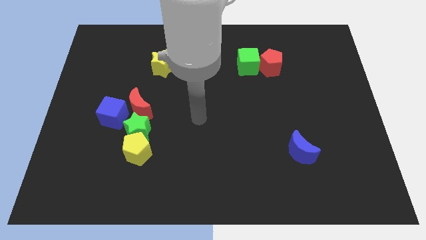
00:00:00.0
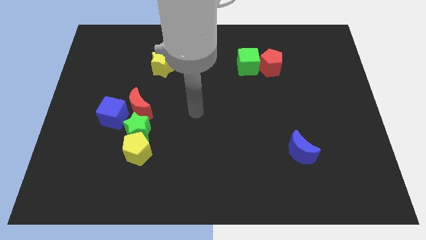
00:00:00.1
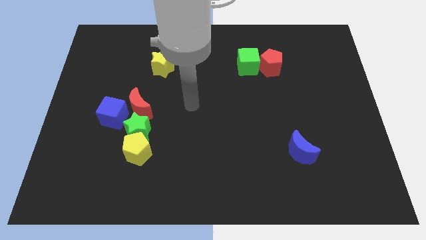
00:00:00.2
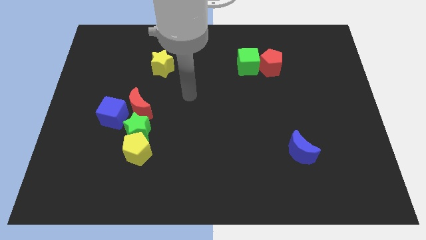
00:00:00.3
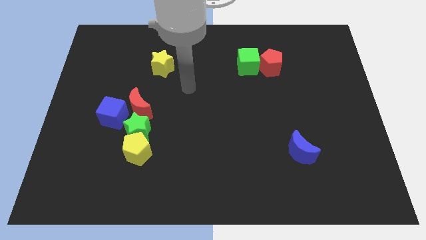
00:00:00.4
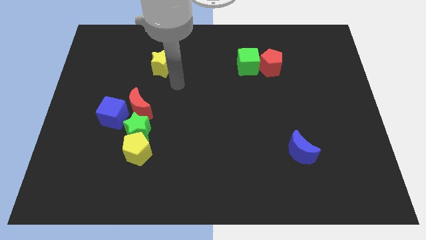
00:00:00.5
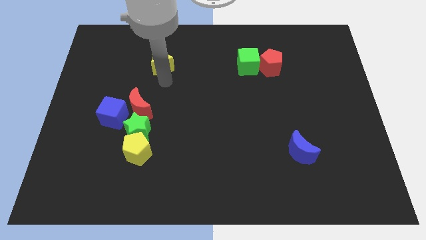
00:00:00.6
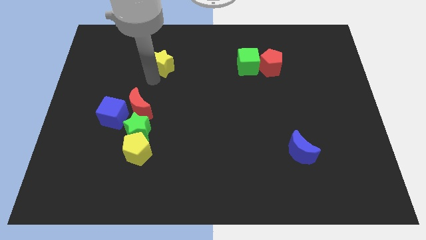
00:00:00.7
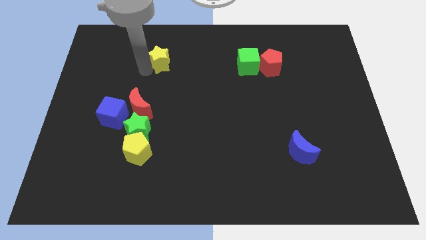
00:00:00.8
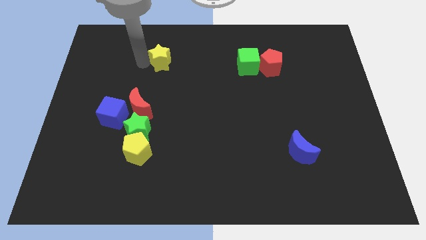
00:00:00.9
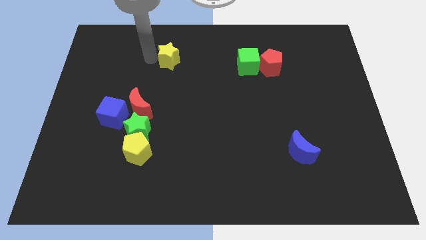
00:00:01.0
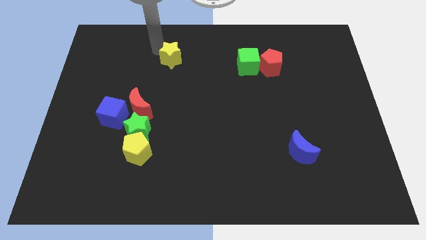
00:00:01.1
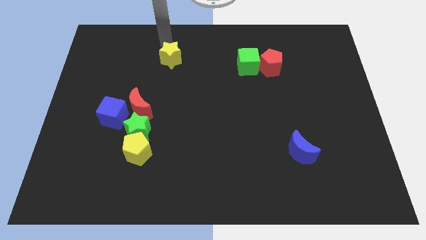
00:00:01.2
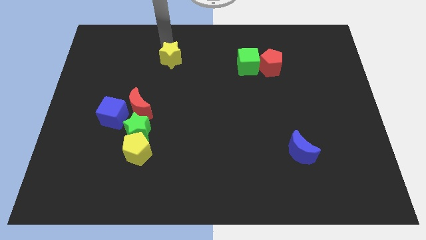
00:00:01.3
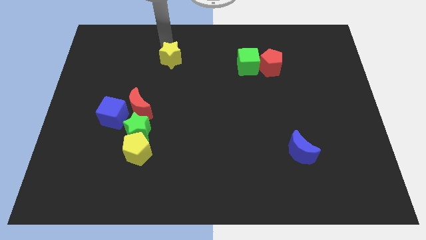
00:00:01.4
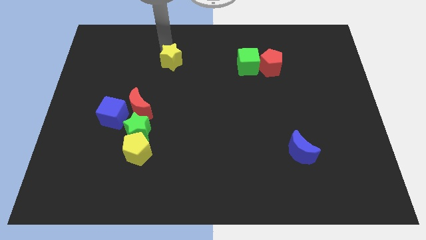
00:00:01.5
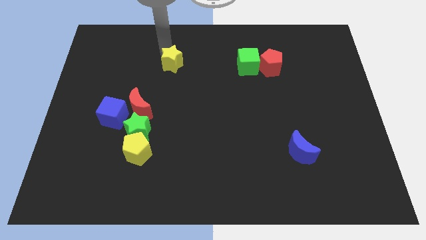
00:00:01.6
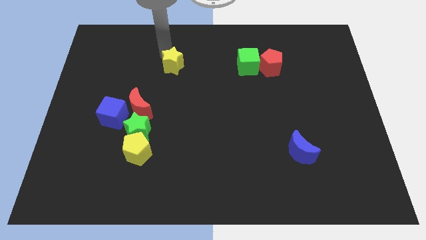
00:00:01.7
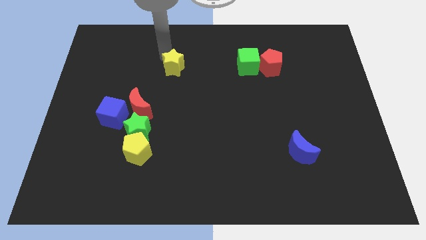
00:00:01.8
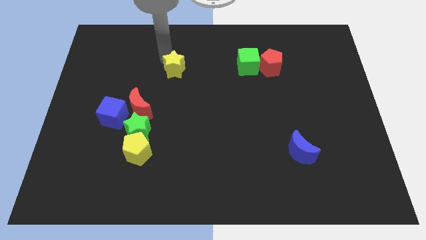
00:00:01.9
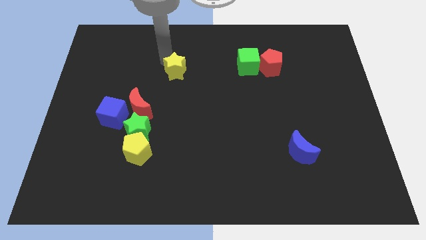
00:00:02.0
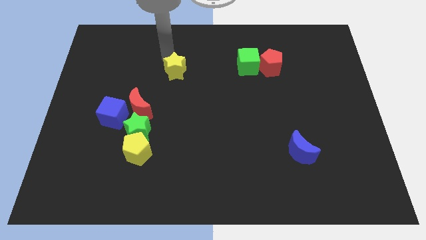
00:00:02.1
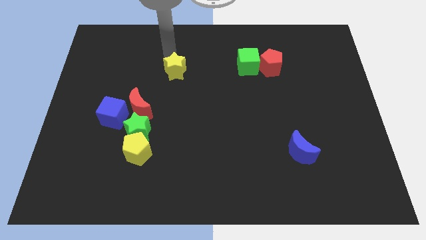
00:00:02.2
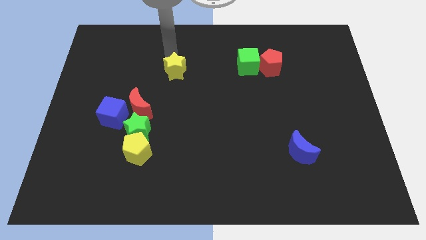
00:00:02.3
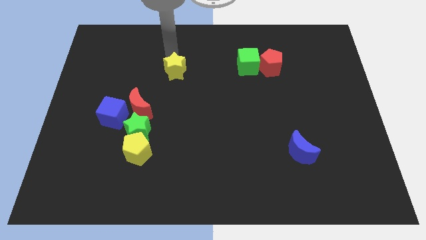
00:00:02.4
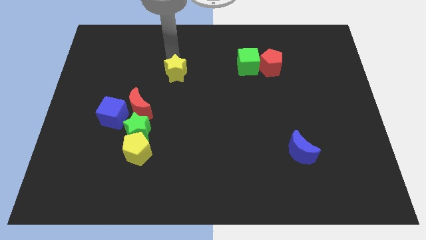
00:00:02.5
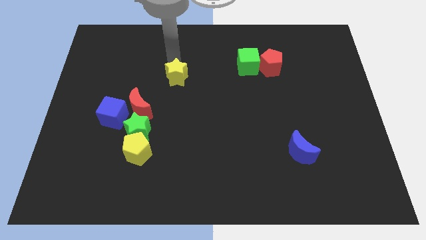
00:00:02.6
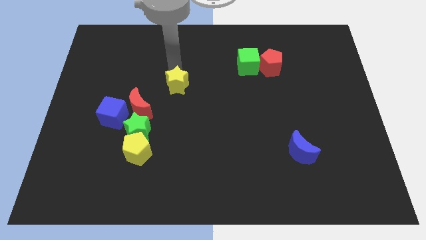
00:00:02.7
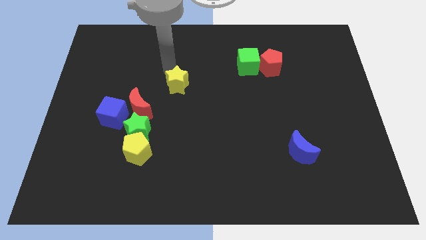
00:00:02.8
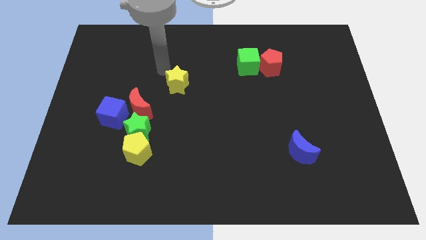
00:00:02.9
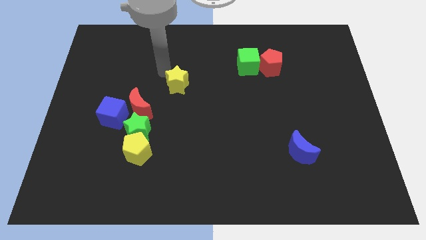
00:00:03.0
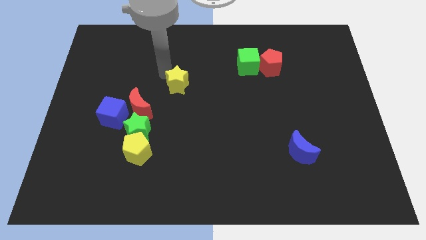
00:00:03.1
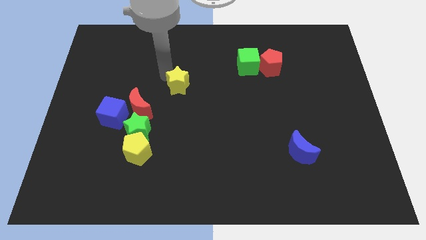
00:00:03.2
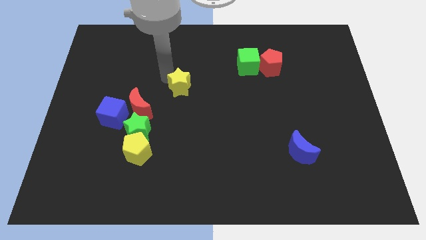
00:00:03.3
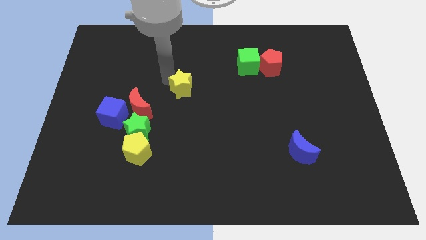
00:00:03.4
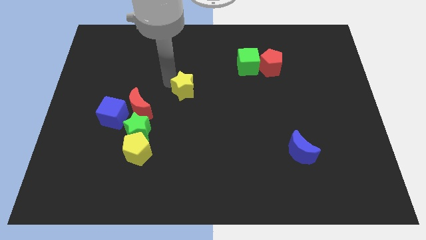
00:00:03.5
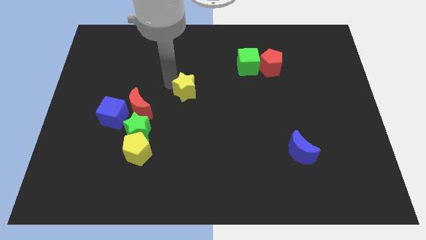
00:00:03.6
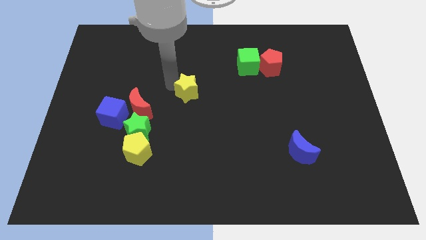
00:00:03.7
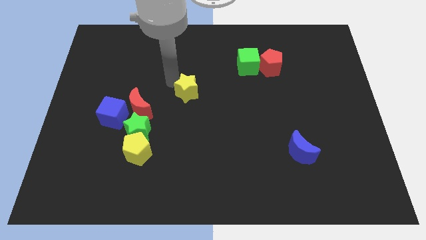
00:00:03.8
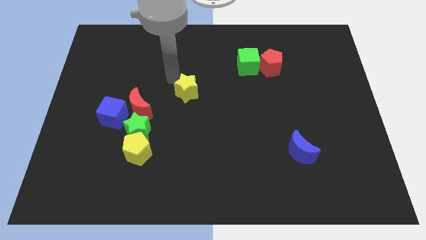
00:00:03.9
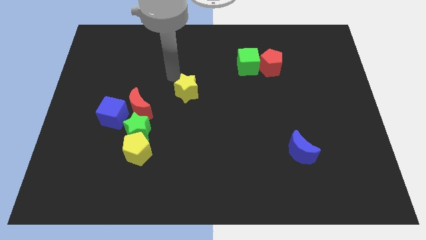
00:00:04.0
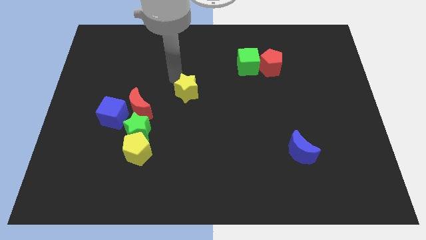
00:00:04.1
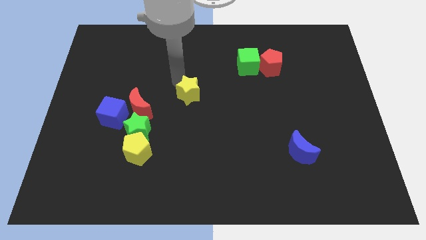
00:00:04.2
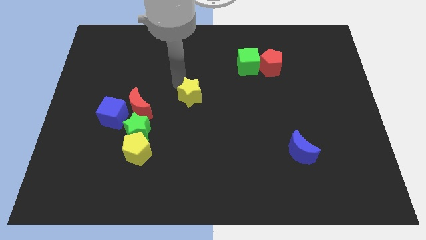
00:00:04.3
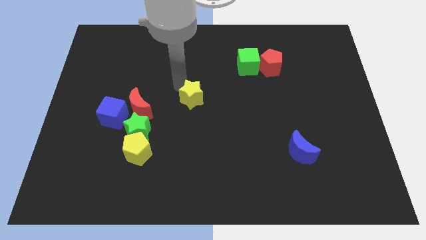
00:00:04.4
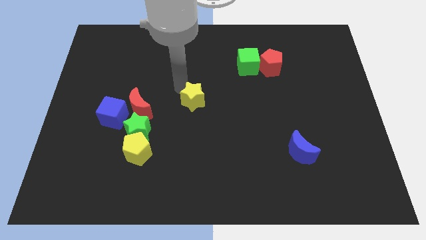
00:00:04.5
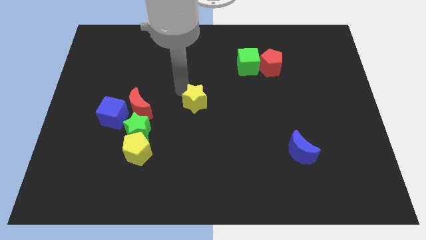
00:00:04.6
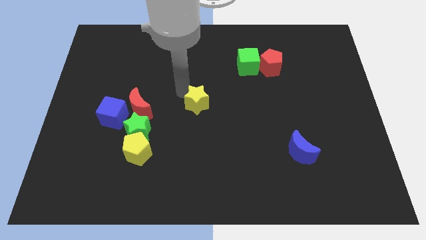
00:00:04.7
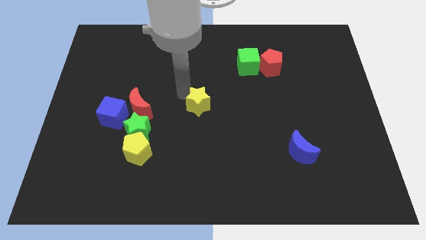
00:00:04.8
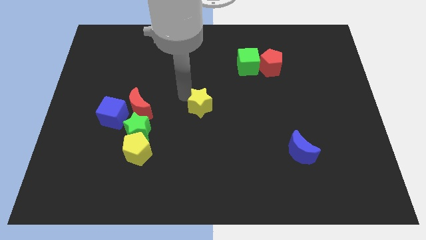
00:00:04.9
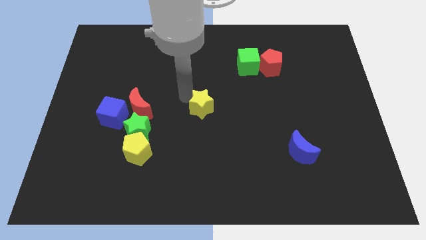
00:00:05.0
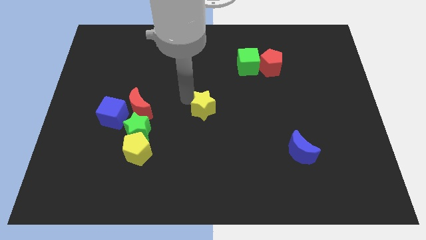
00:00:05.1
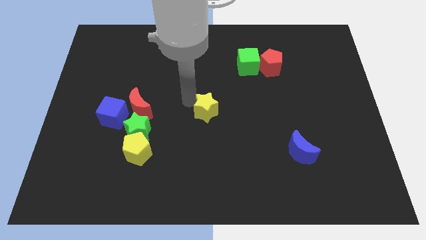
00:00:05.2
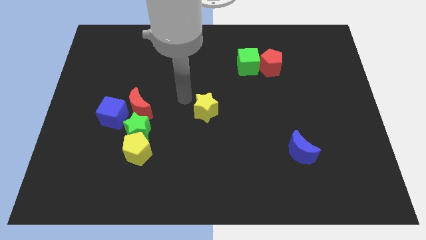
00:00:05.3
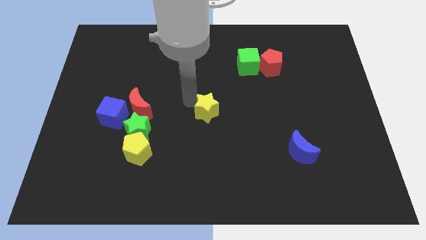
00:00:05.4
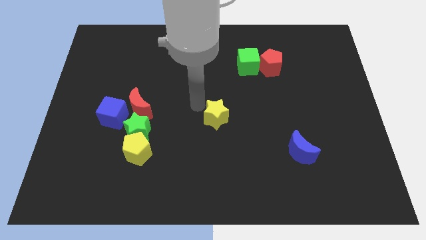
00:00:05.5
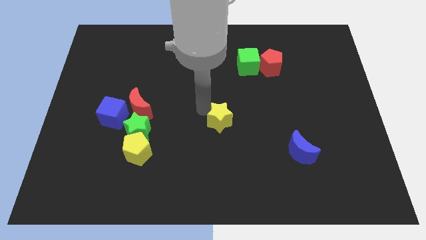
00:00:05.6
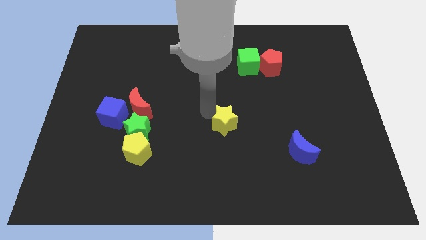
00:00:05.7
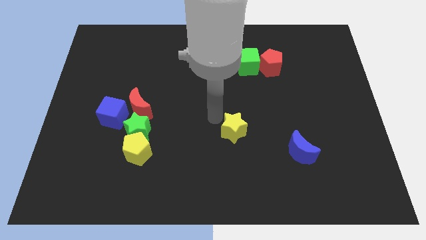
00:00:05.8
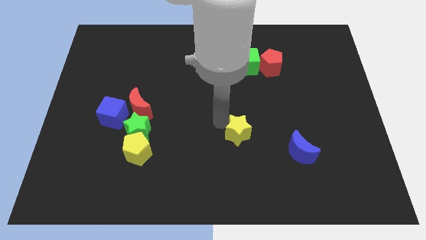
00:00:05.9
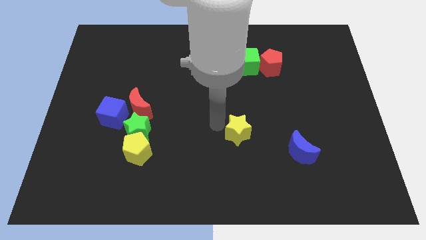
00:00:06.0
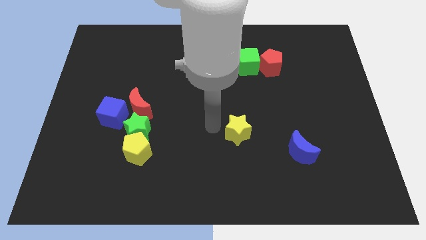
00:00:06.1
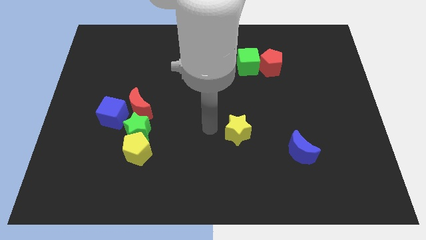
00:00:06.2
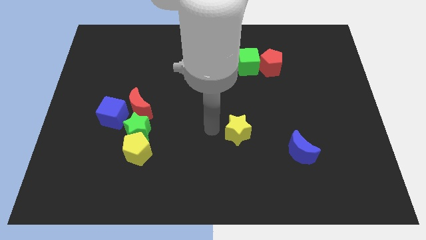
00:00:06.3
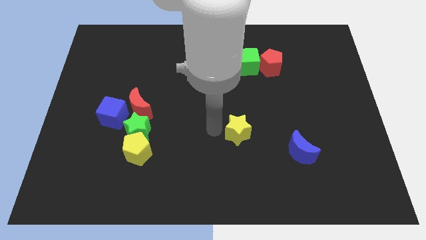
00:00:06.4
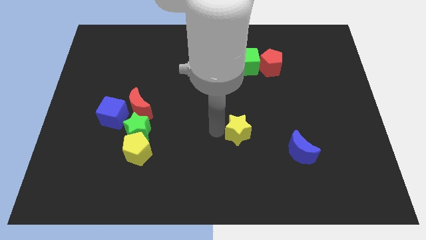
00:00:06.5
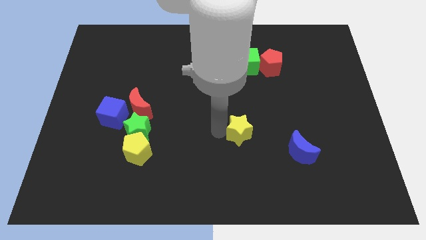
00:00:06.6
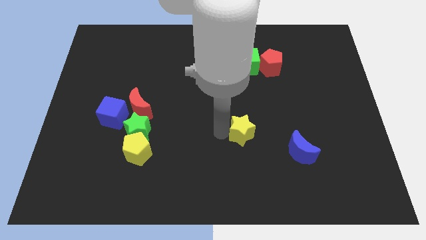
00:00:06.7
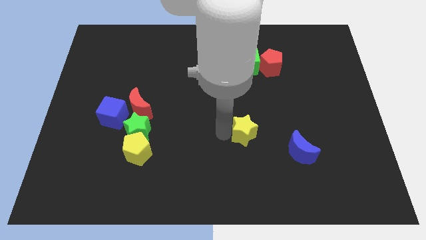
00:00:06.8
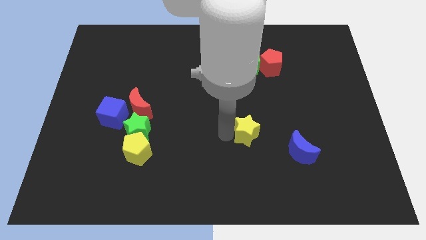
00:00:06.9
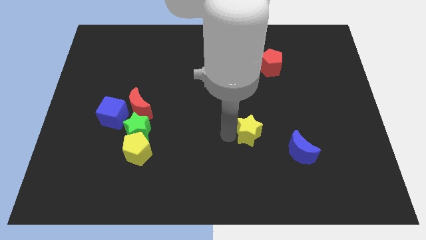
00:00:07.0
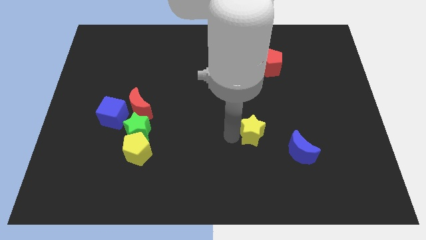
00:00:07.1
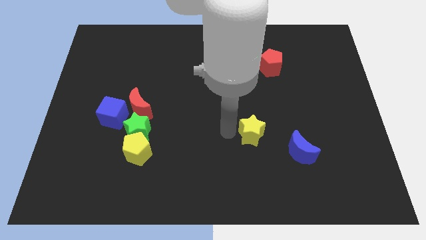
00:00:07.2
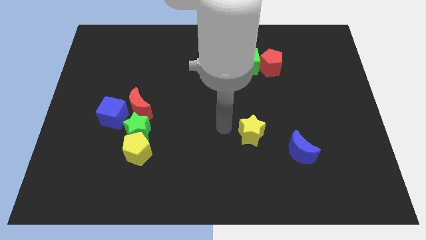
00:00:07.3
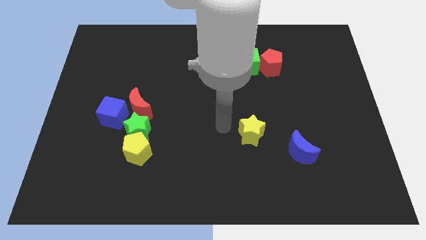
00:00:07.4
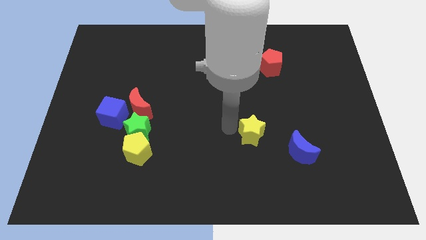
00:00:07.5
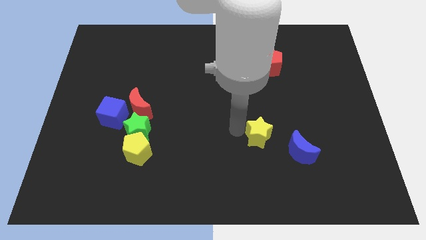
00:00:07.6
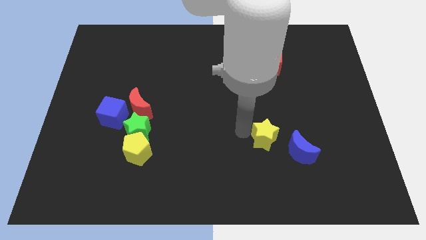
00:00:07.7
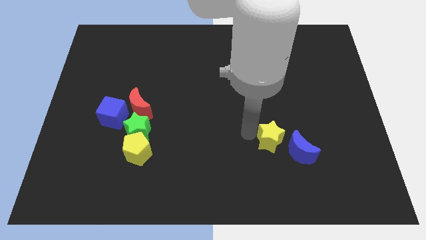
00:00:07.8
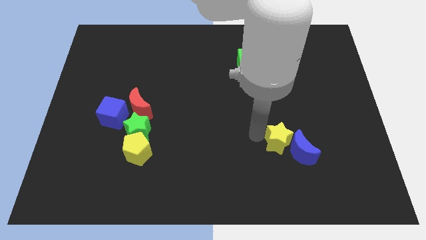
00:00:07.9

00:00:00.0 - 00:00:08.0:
move the yellow star towards the blue moon
